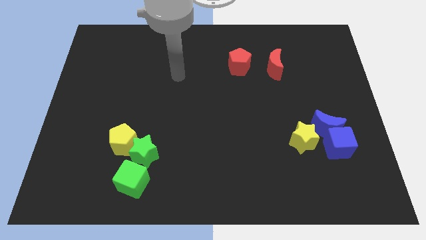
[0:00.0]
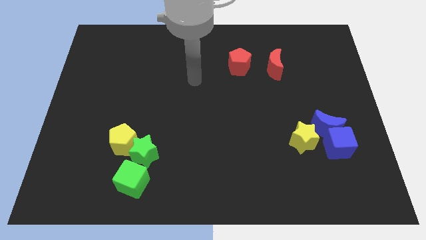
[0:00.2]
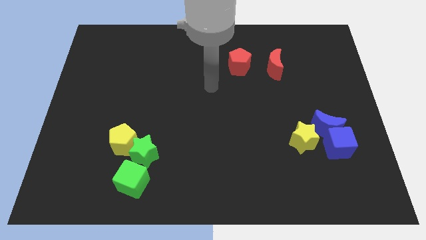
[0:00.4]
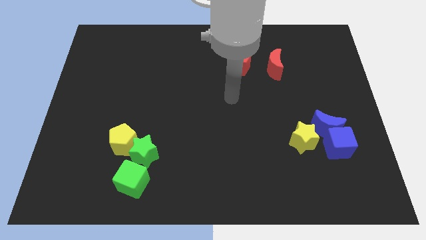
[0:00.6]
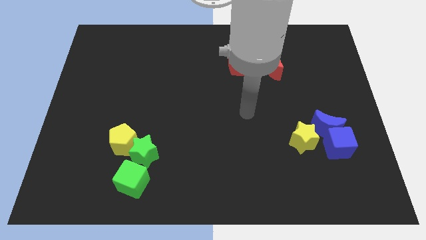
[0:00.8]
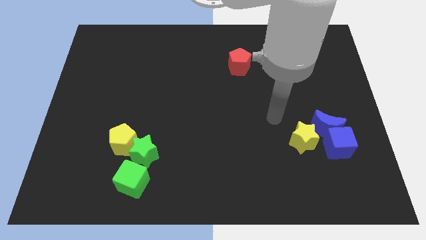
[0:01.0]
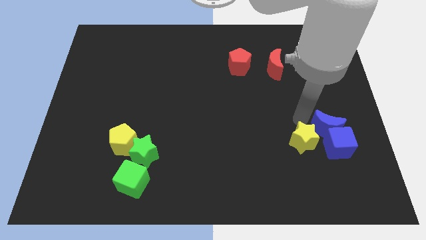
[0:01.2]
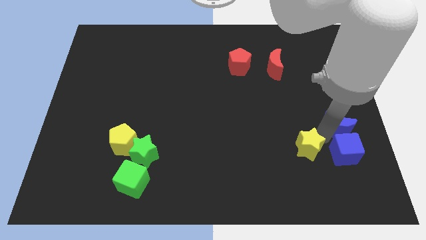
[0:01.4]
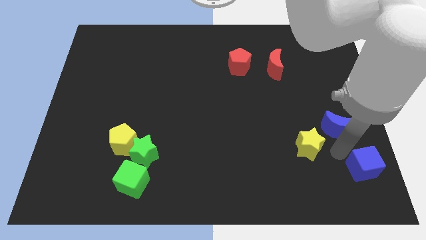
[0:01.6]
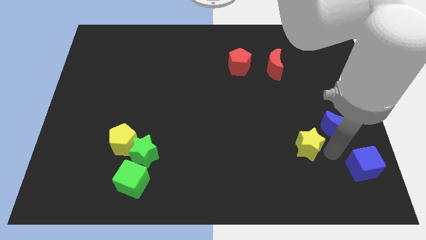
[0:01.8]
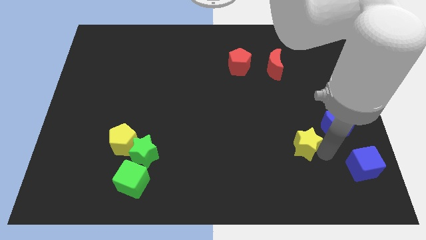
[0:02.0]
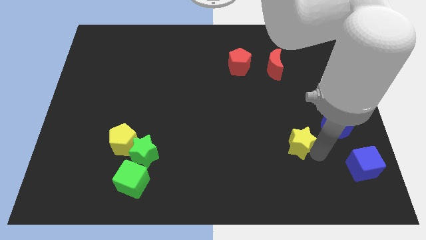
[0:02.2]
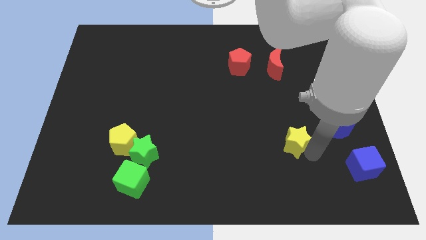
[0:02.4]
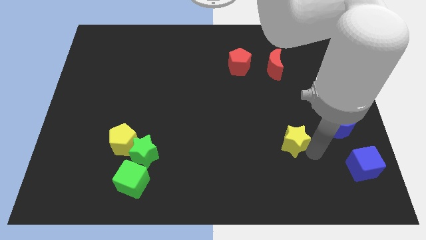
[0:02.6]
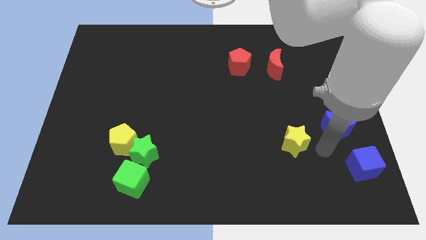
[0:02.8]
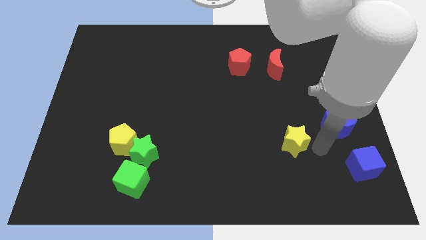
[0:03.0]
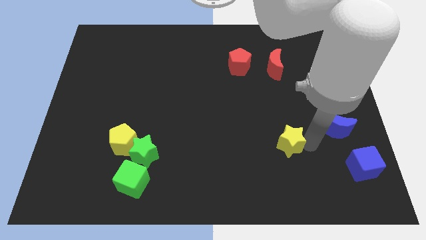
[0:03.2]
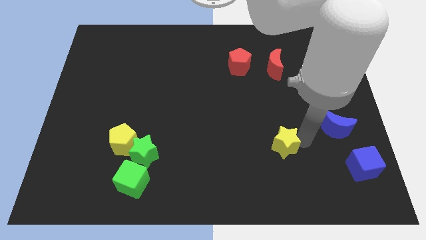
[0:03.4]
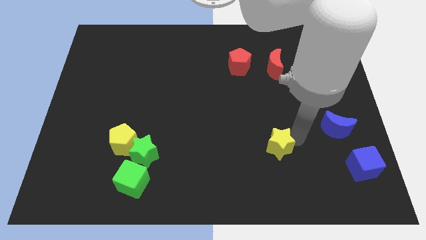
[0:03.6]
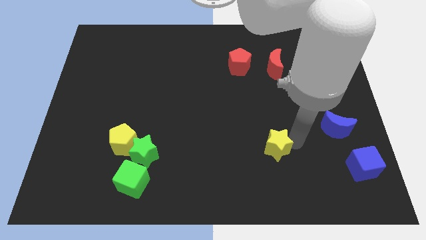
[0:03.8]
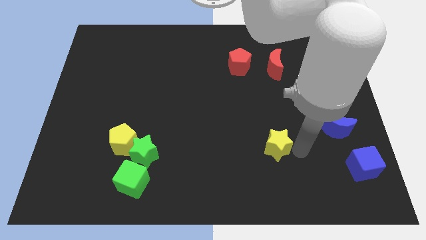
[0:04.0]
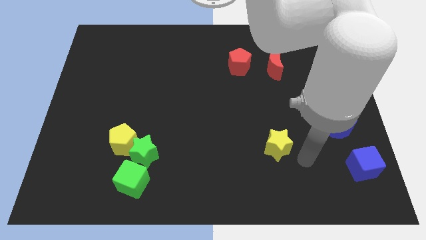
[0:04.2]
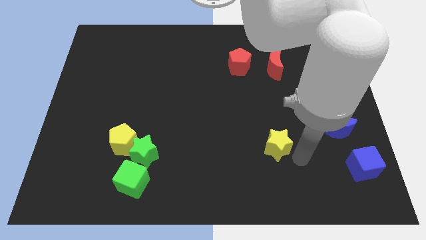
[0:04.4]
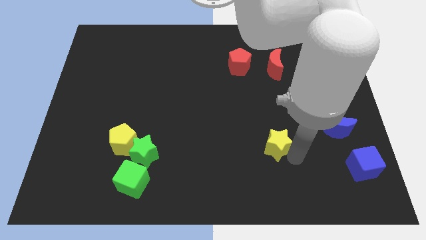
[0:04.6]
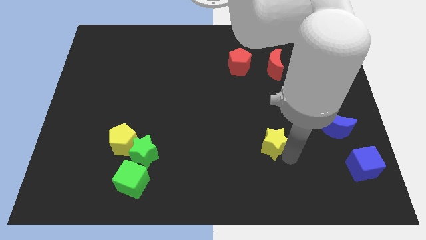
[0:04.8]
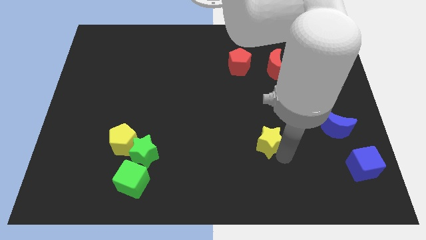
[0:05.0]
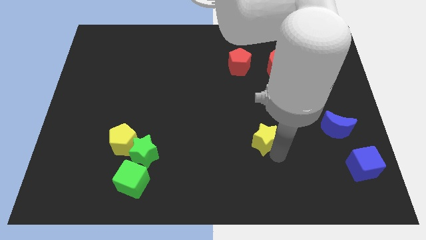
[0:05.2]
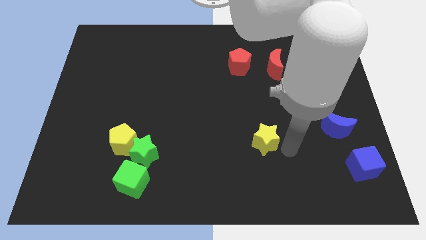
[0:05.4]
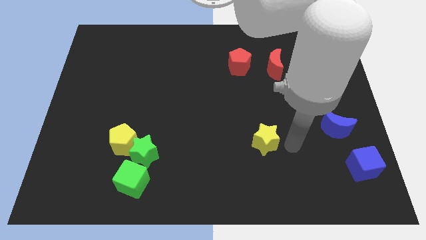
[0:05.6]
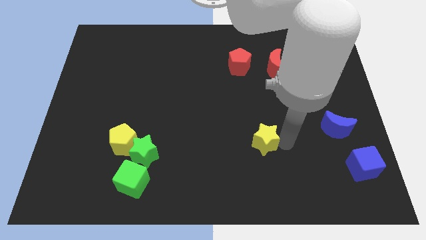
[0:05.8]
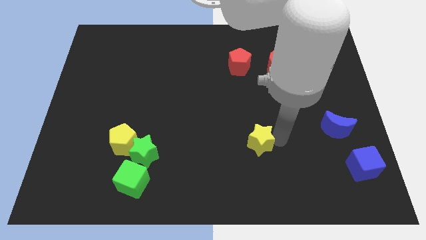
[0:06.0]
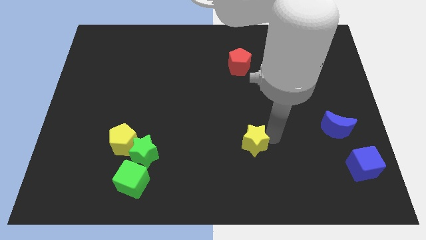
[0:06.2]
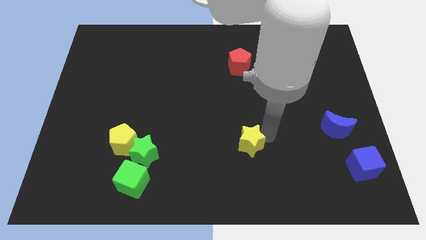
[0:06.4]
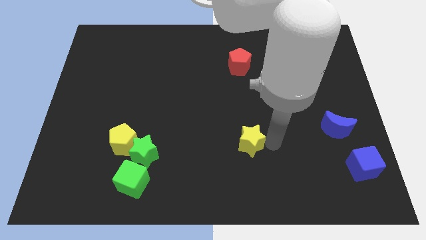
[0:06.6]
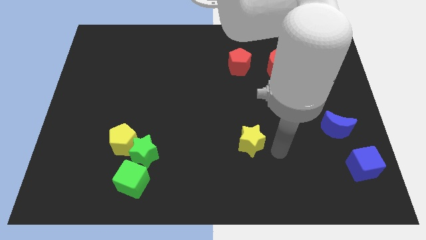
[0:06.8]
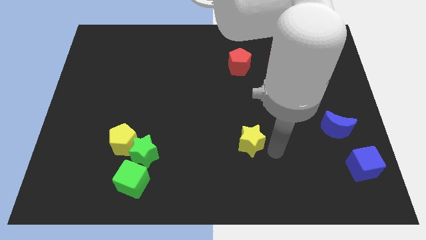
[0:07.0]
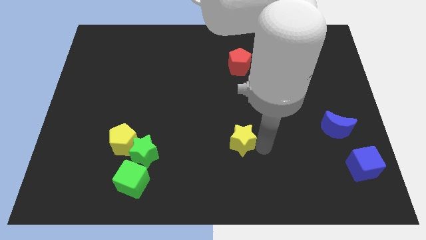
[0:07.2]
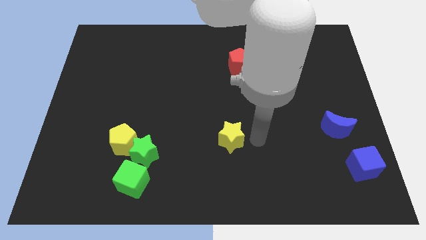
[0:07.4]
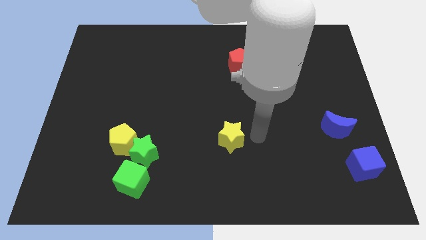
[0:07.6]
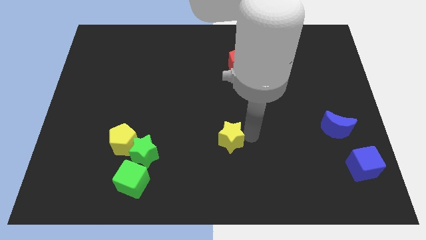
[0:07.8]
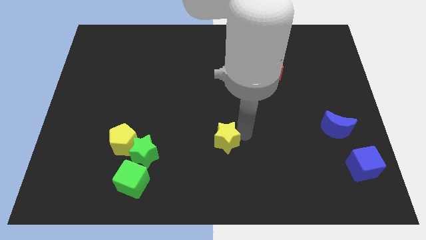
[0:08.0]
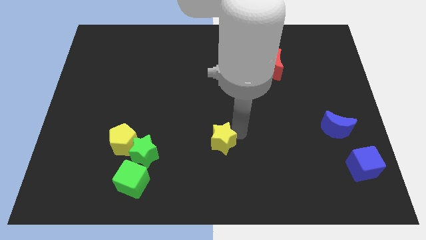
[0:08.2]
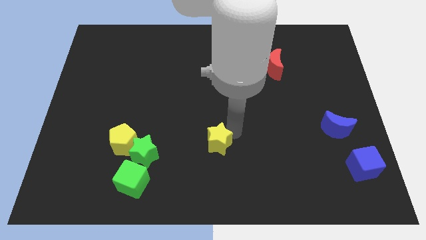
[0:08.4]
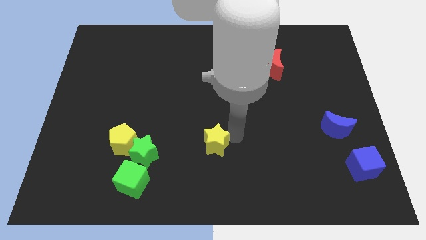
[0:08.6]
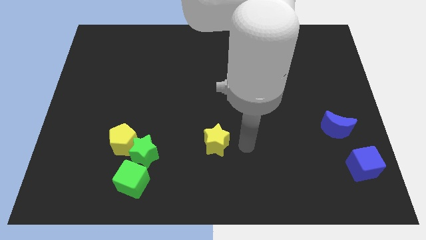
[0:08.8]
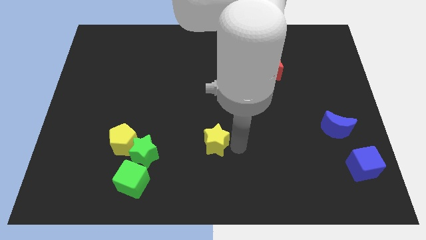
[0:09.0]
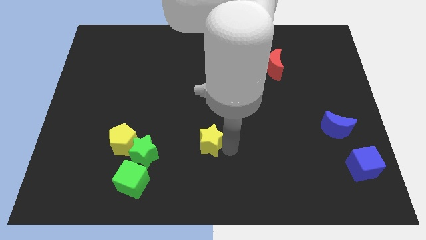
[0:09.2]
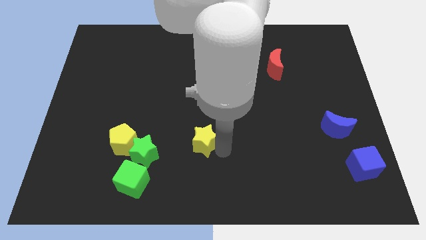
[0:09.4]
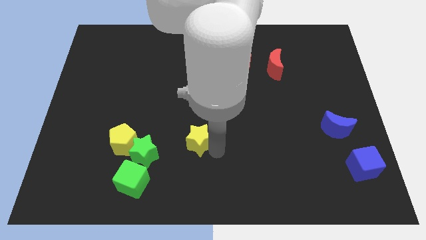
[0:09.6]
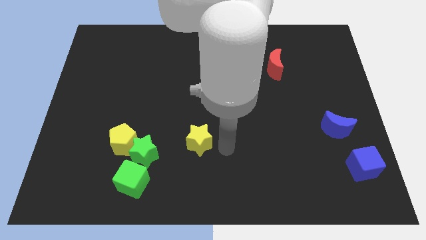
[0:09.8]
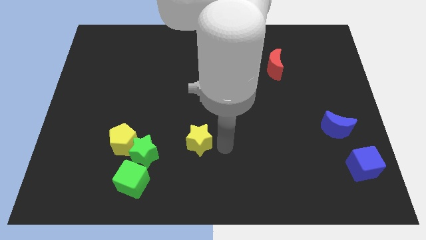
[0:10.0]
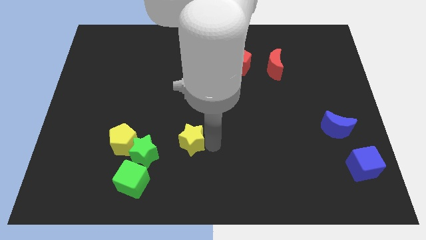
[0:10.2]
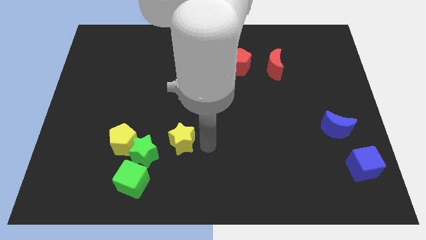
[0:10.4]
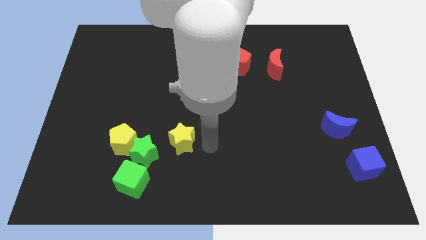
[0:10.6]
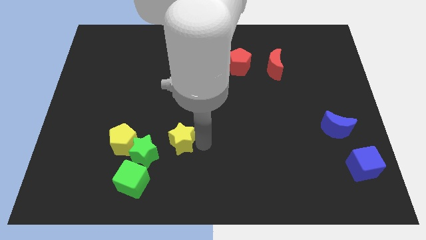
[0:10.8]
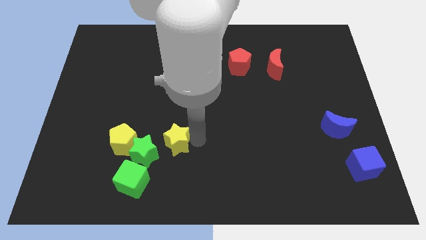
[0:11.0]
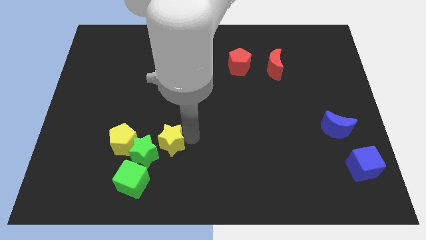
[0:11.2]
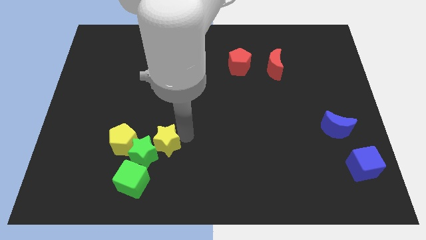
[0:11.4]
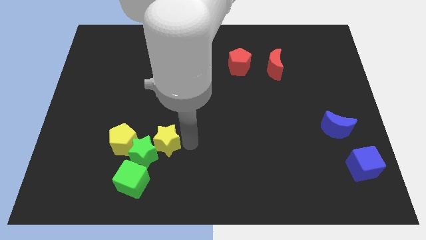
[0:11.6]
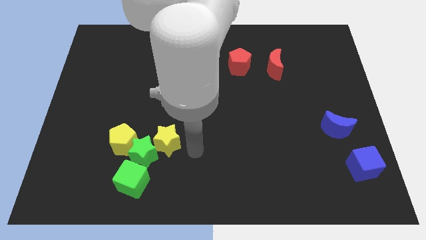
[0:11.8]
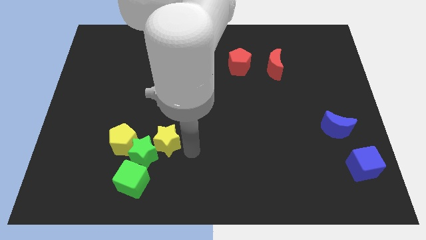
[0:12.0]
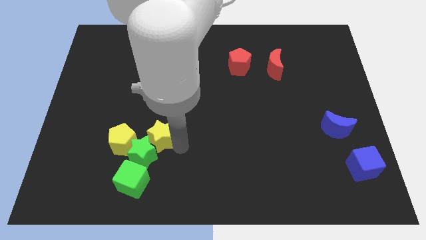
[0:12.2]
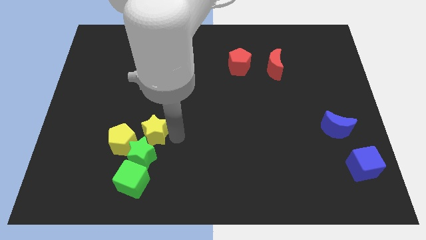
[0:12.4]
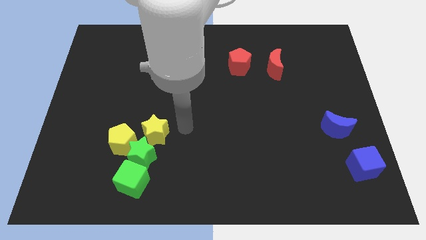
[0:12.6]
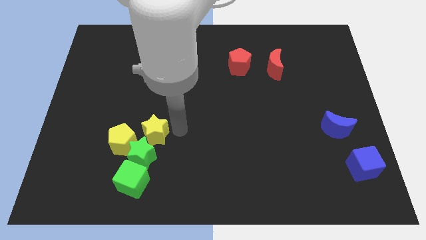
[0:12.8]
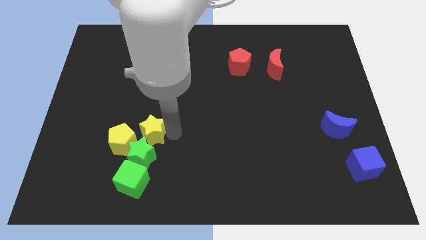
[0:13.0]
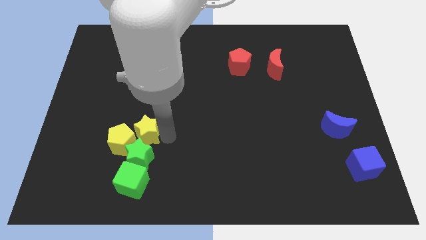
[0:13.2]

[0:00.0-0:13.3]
slide the yellow star close to the yellow pentagon

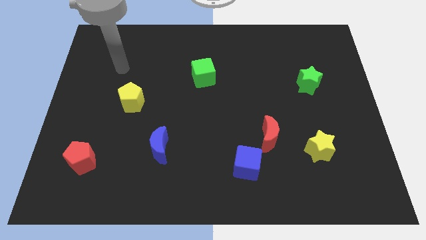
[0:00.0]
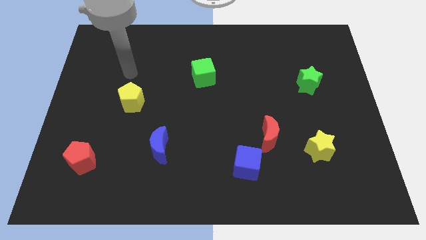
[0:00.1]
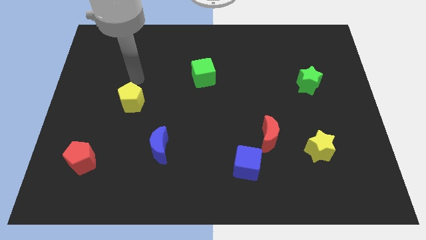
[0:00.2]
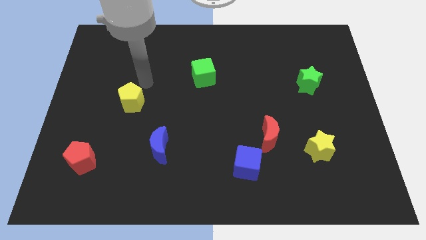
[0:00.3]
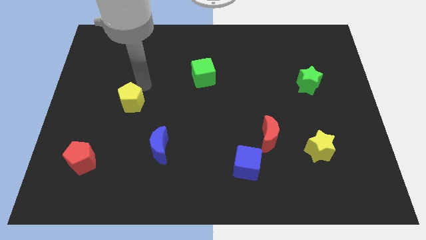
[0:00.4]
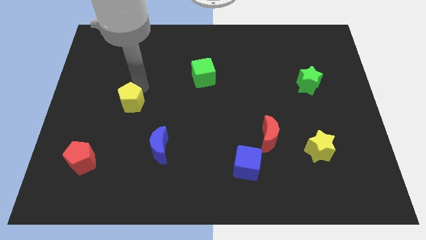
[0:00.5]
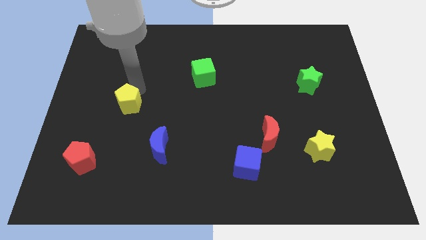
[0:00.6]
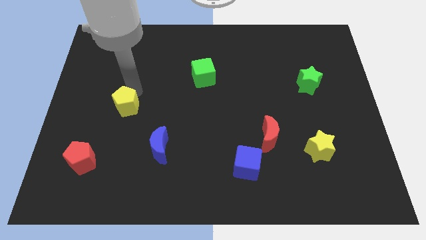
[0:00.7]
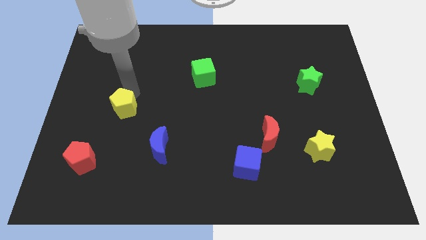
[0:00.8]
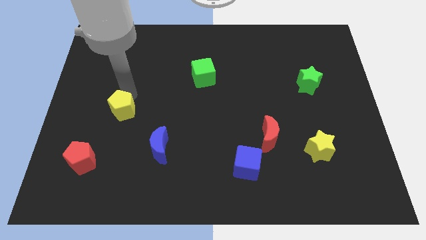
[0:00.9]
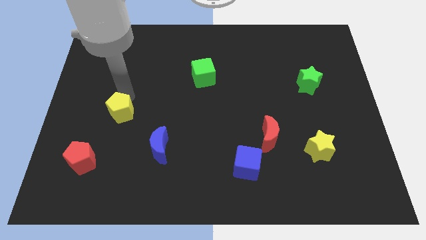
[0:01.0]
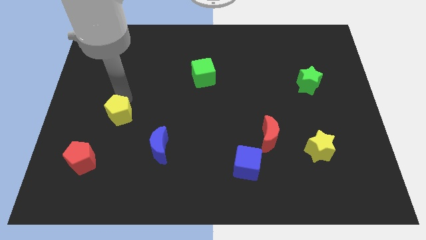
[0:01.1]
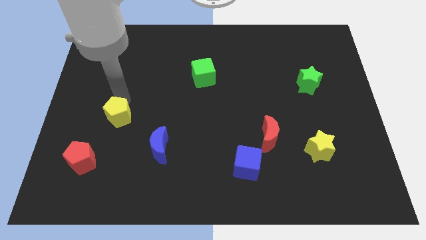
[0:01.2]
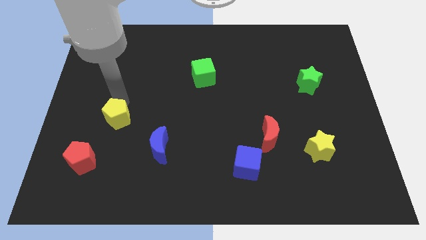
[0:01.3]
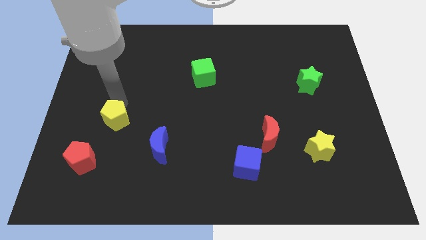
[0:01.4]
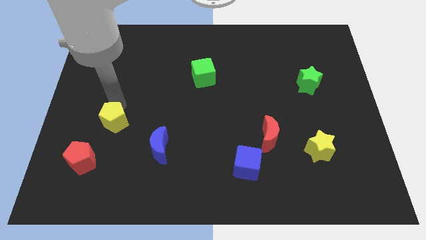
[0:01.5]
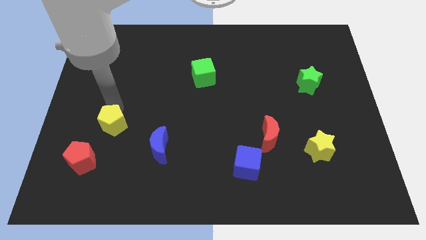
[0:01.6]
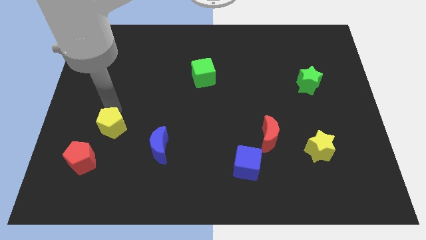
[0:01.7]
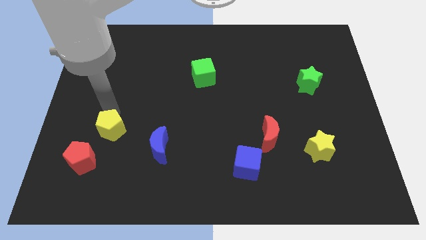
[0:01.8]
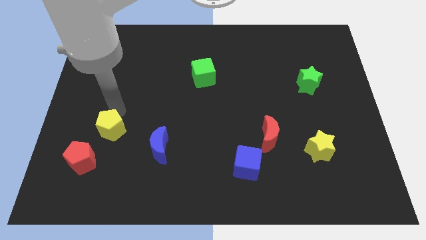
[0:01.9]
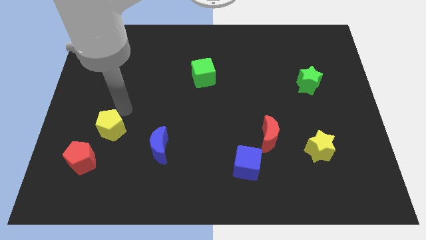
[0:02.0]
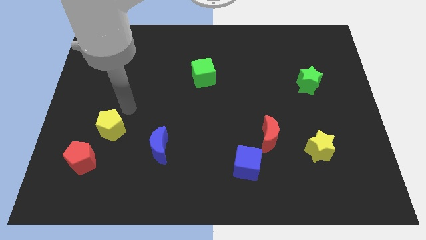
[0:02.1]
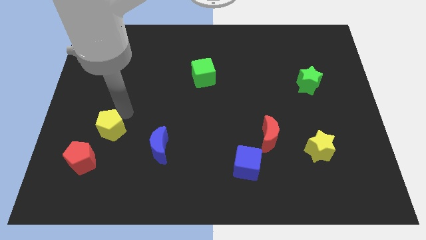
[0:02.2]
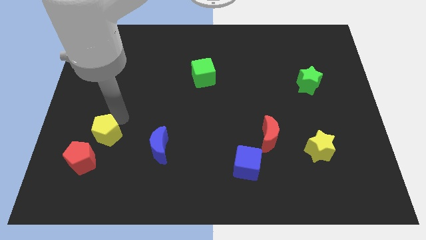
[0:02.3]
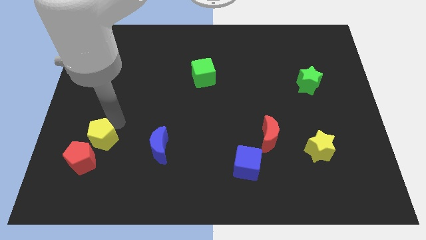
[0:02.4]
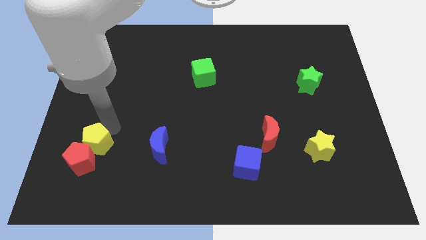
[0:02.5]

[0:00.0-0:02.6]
put the yellow pentagon to the red pentagon
